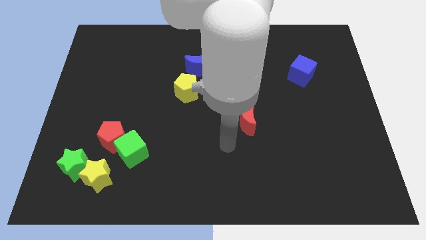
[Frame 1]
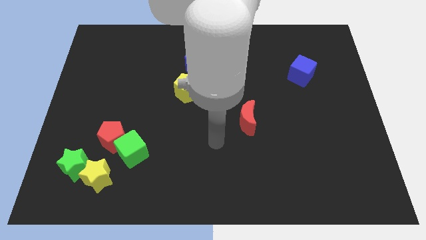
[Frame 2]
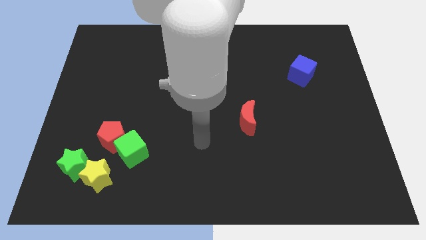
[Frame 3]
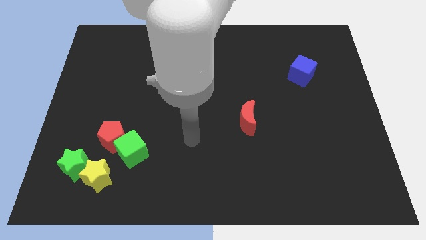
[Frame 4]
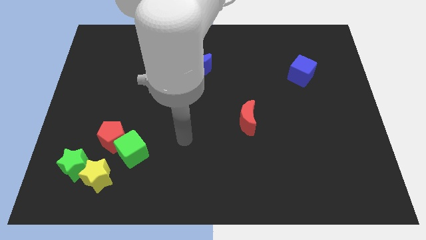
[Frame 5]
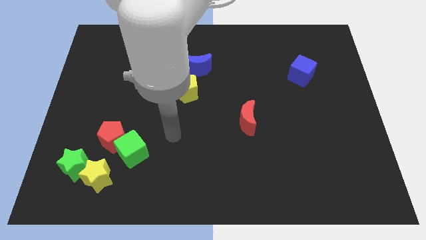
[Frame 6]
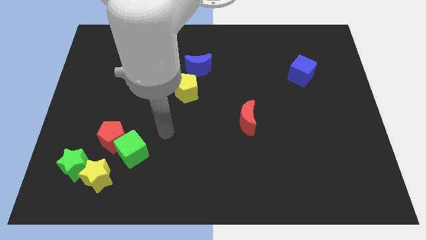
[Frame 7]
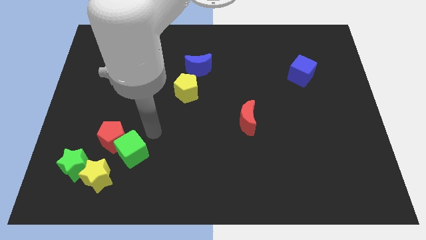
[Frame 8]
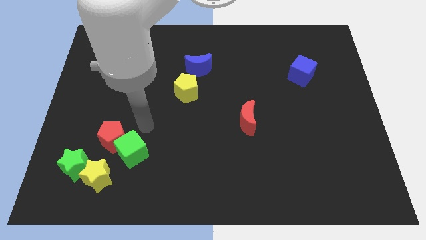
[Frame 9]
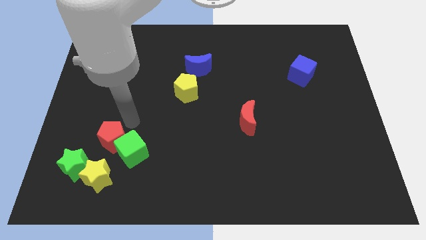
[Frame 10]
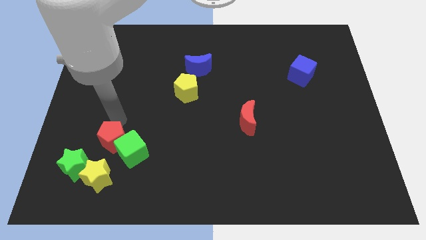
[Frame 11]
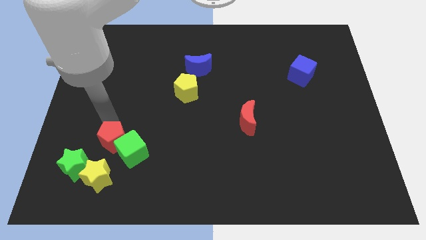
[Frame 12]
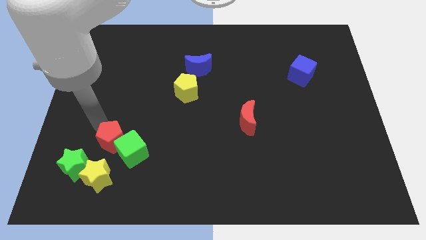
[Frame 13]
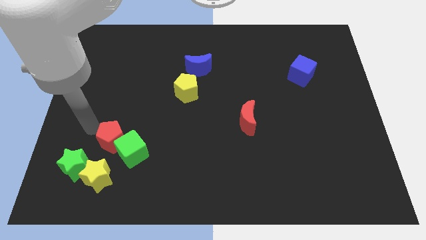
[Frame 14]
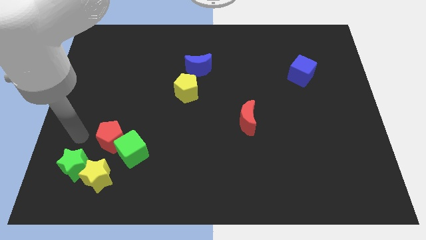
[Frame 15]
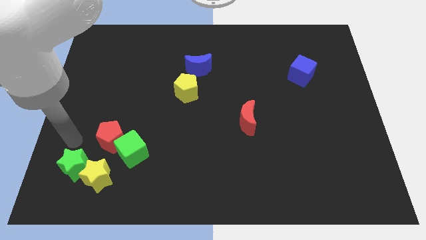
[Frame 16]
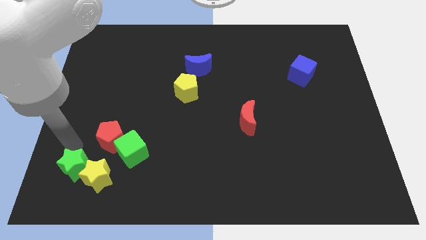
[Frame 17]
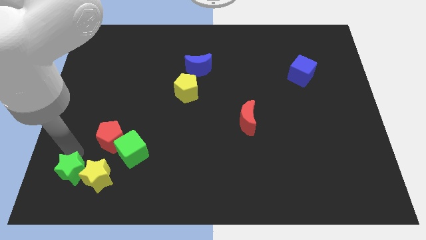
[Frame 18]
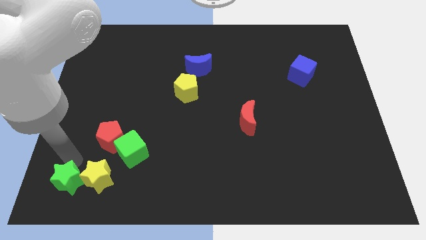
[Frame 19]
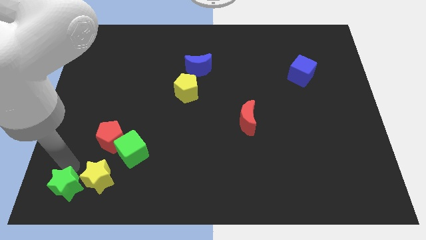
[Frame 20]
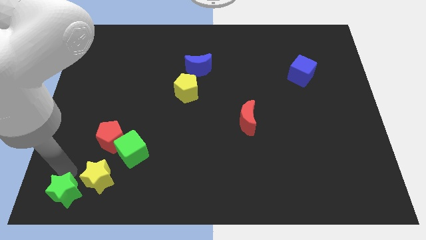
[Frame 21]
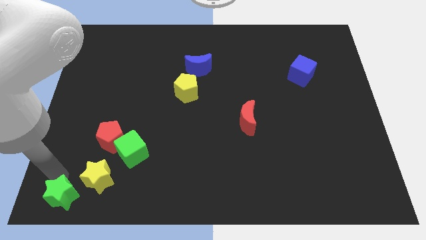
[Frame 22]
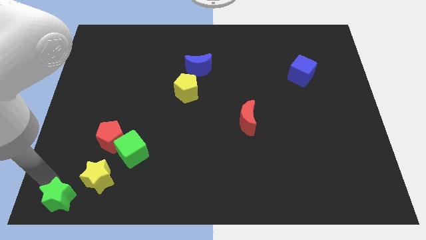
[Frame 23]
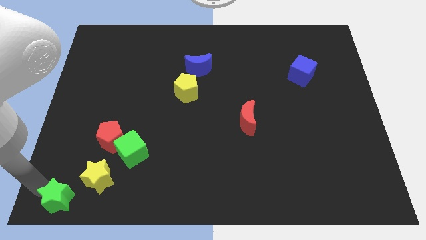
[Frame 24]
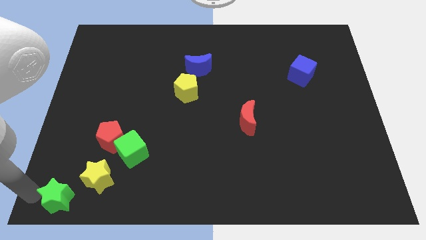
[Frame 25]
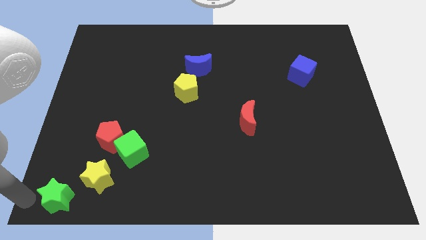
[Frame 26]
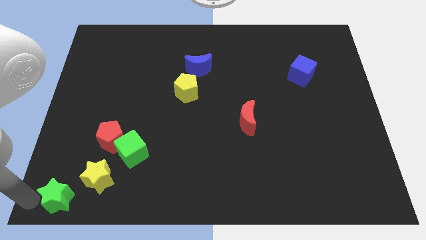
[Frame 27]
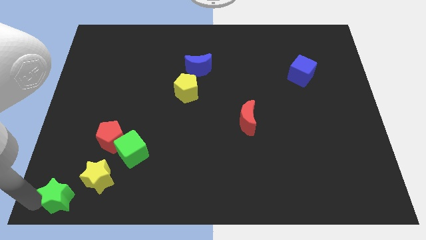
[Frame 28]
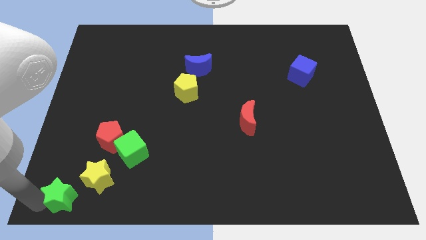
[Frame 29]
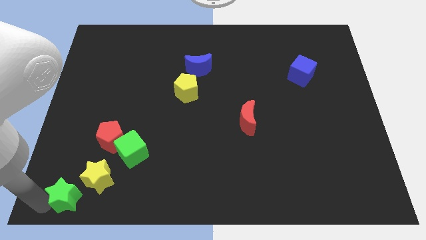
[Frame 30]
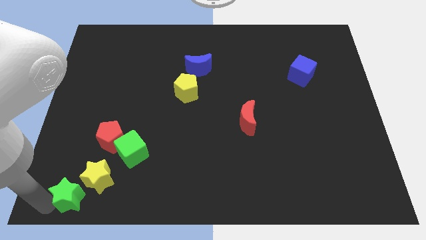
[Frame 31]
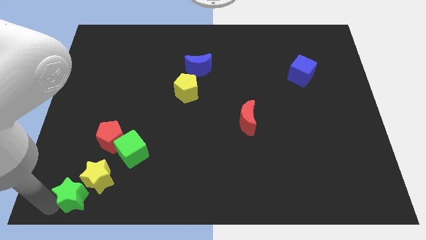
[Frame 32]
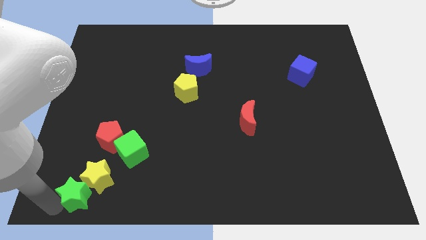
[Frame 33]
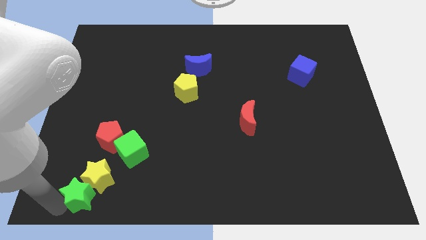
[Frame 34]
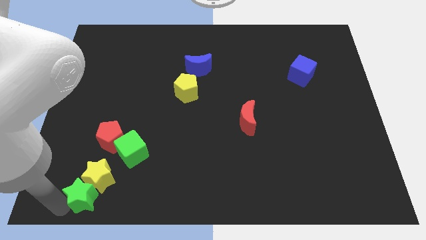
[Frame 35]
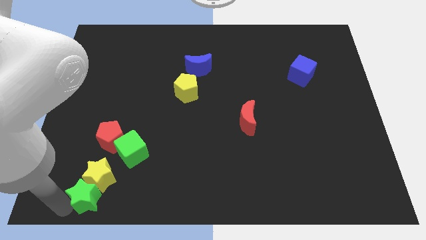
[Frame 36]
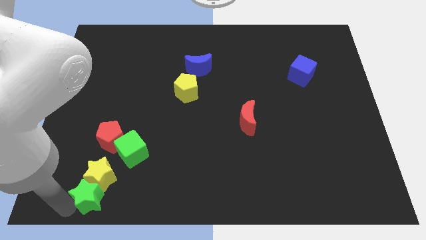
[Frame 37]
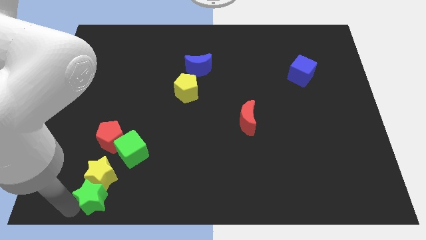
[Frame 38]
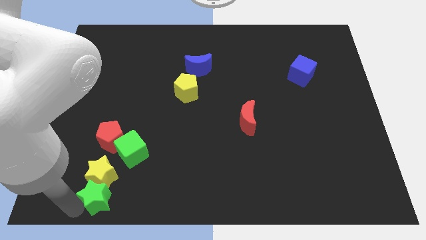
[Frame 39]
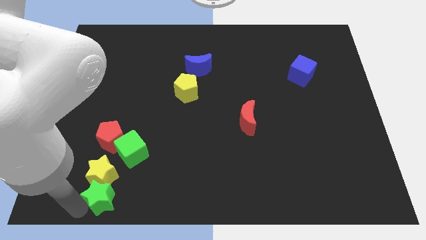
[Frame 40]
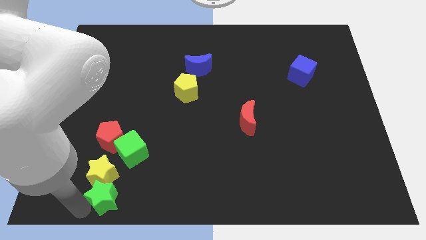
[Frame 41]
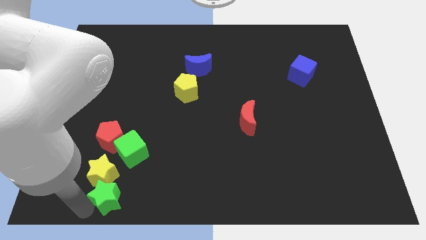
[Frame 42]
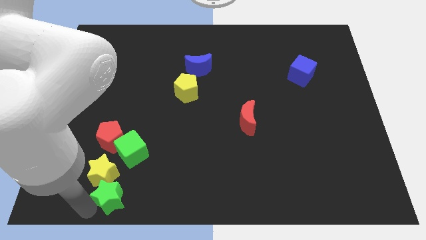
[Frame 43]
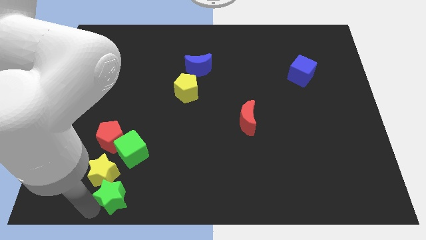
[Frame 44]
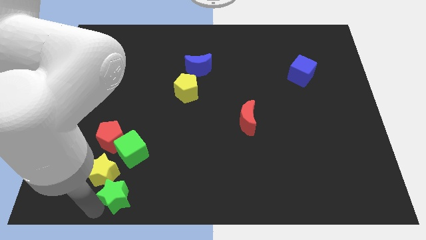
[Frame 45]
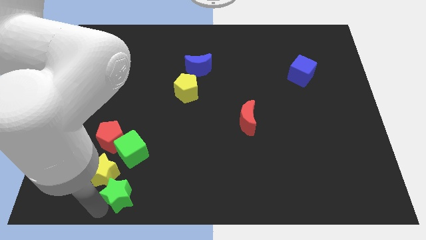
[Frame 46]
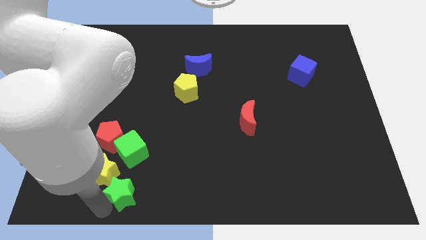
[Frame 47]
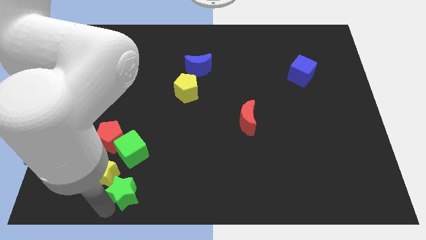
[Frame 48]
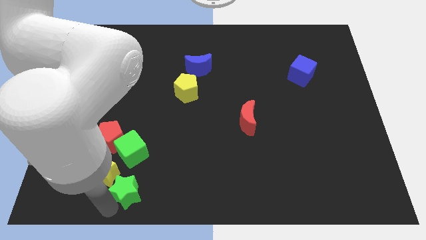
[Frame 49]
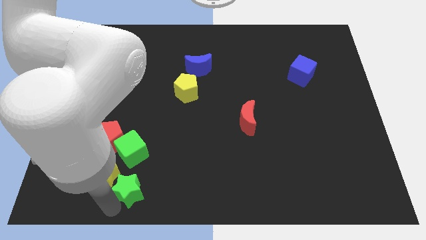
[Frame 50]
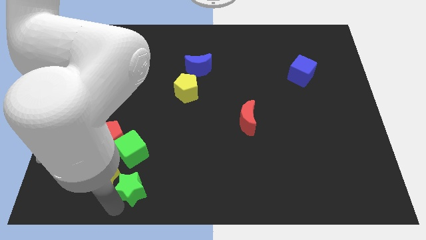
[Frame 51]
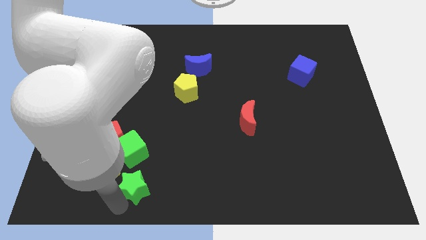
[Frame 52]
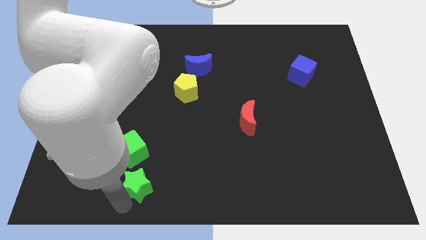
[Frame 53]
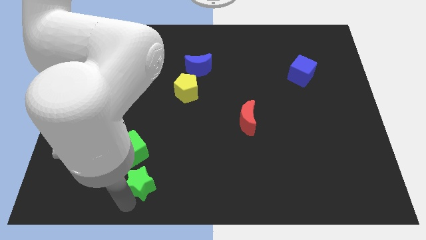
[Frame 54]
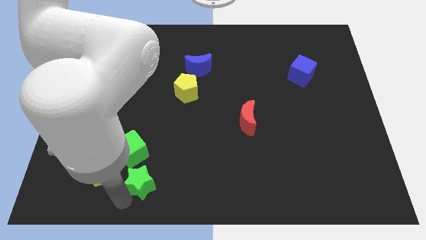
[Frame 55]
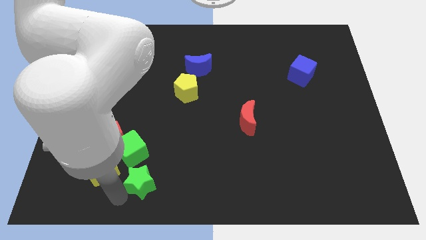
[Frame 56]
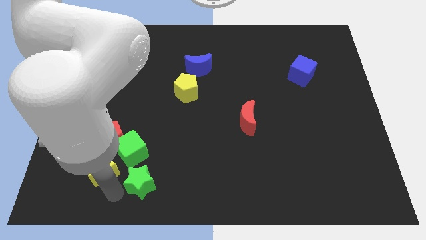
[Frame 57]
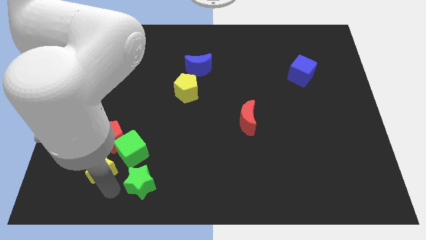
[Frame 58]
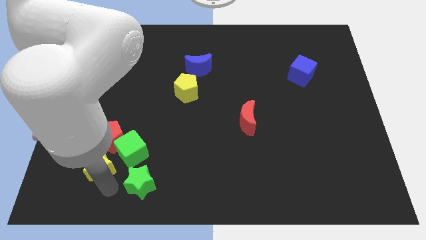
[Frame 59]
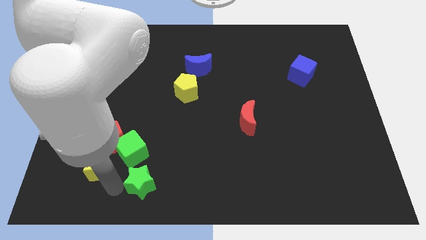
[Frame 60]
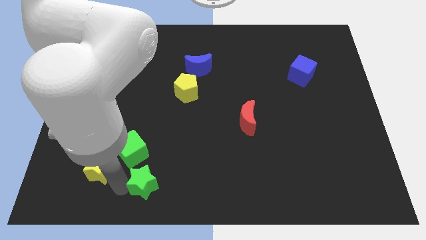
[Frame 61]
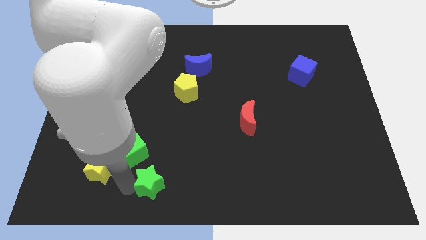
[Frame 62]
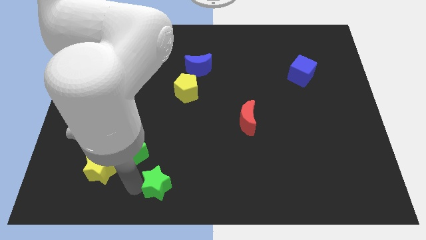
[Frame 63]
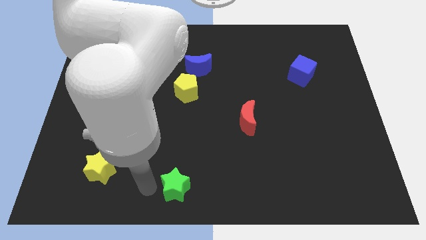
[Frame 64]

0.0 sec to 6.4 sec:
move the green star to the right

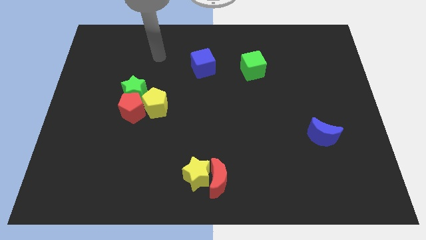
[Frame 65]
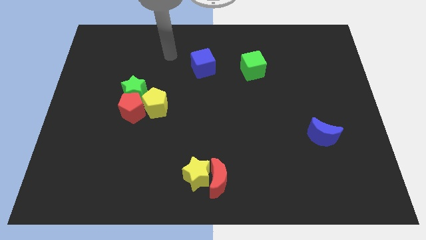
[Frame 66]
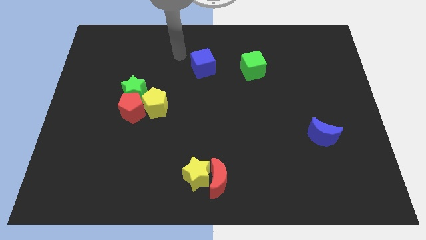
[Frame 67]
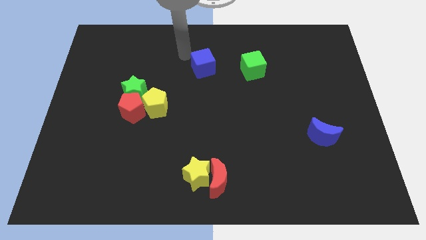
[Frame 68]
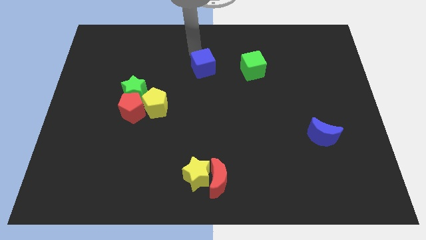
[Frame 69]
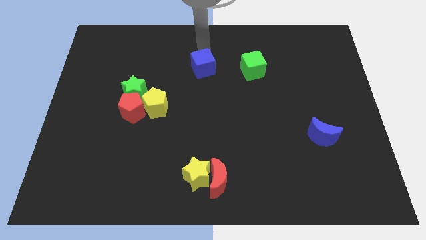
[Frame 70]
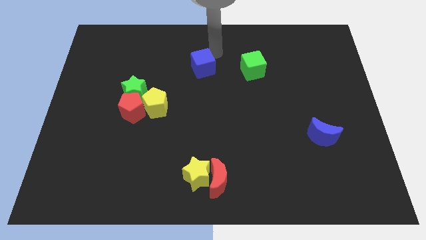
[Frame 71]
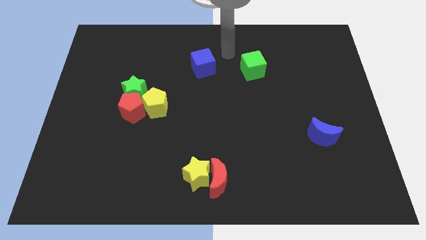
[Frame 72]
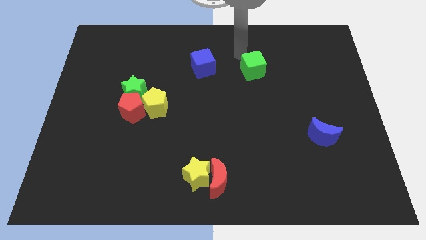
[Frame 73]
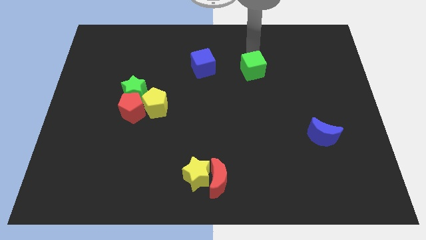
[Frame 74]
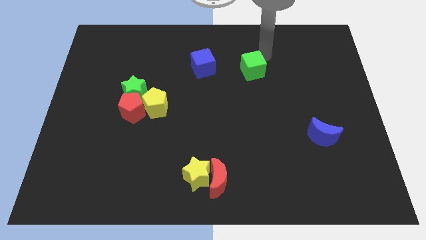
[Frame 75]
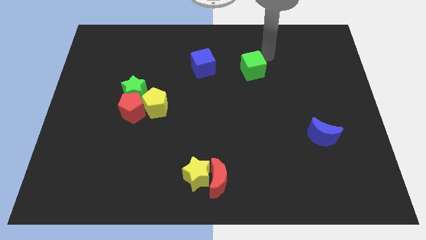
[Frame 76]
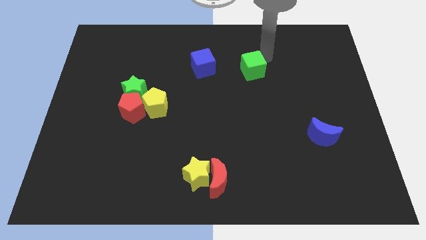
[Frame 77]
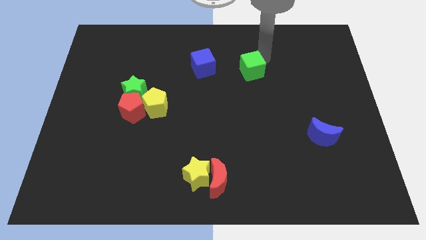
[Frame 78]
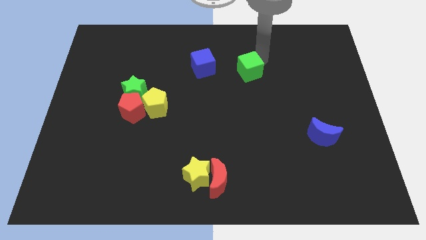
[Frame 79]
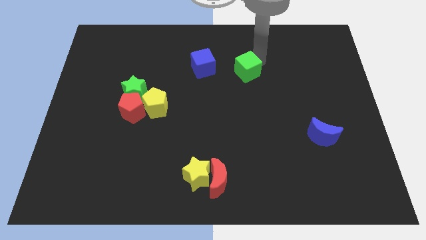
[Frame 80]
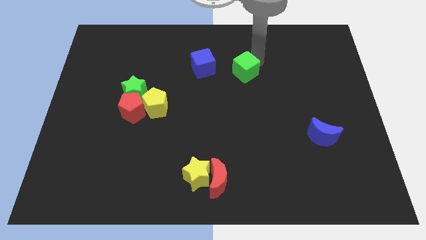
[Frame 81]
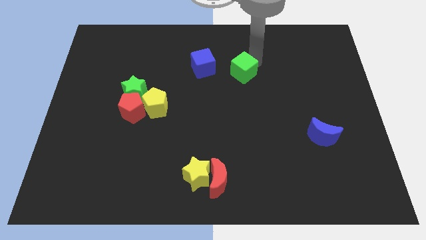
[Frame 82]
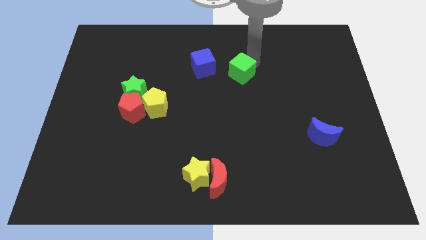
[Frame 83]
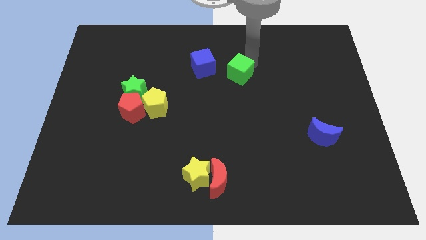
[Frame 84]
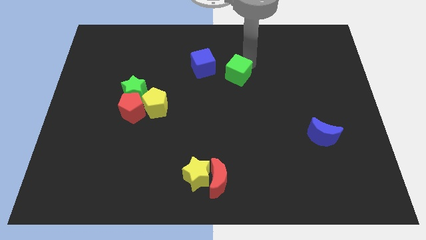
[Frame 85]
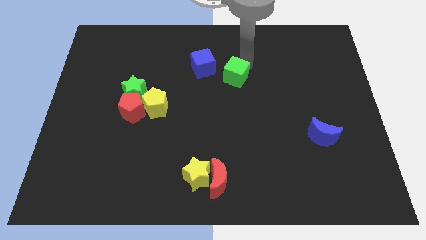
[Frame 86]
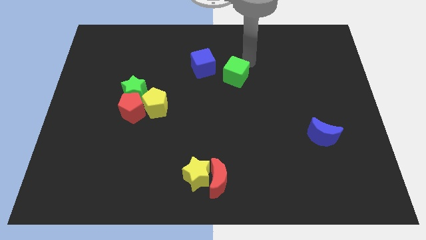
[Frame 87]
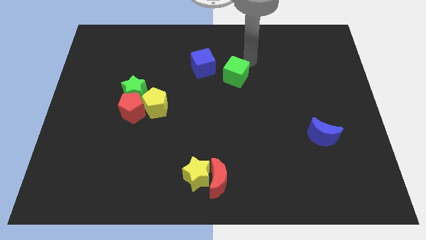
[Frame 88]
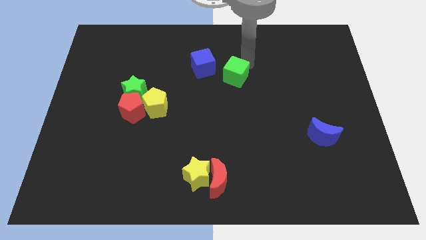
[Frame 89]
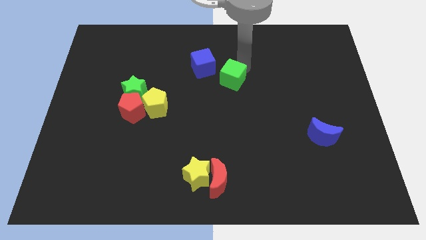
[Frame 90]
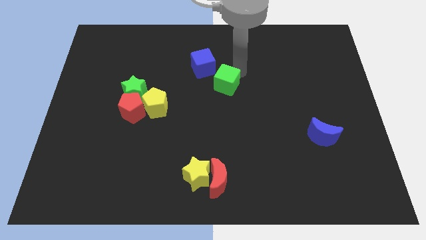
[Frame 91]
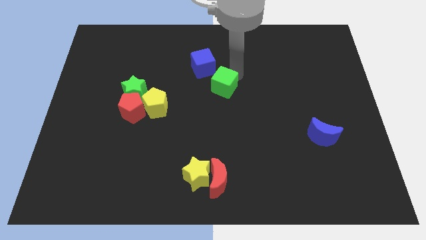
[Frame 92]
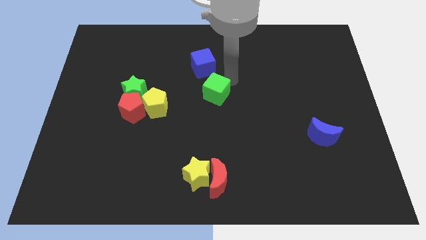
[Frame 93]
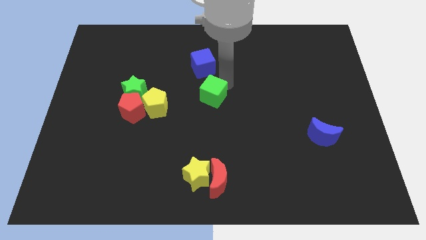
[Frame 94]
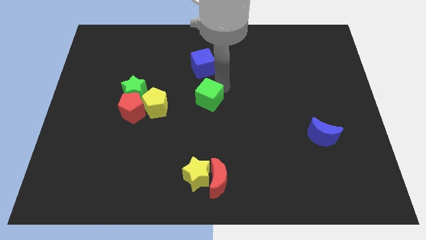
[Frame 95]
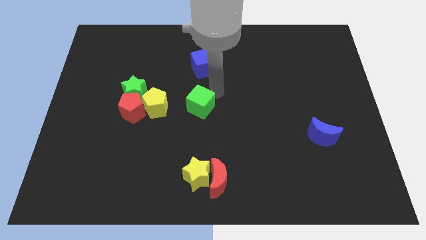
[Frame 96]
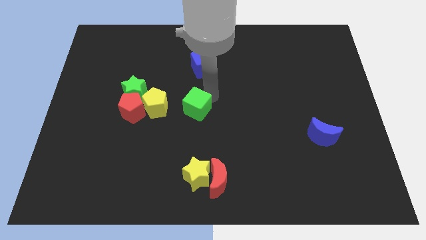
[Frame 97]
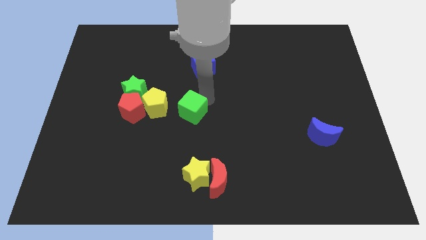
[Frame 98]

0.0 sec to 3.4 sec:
slide the green cube downwards and then left
